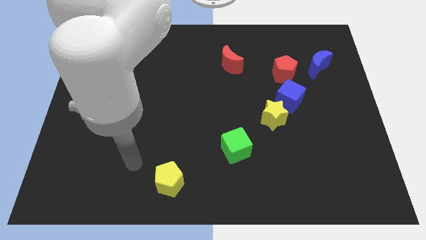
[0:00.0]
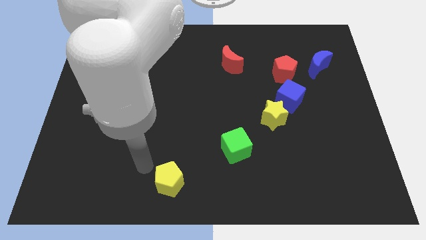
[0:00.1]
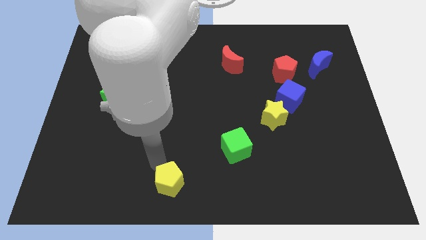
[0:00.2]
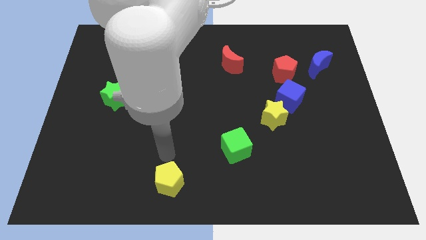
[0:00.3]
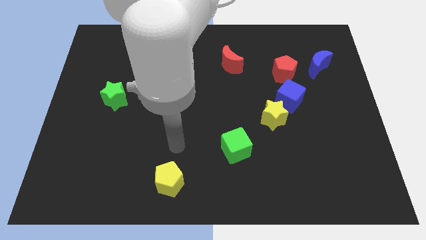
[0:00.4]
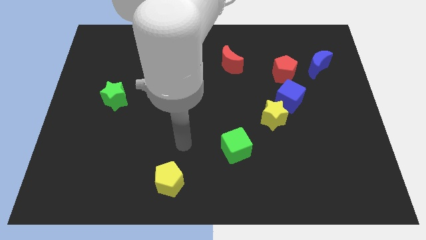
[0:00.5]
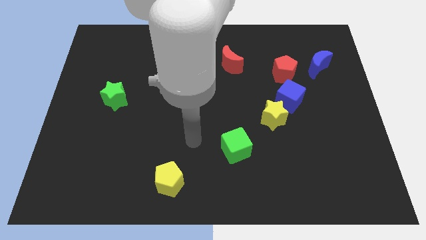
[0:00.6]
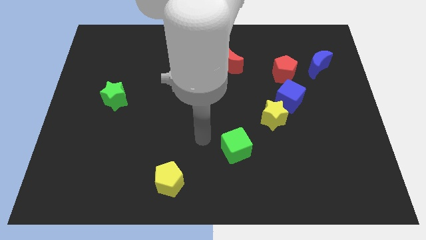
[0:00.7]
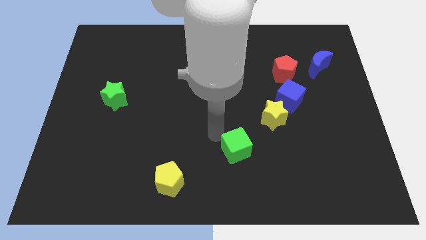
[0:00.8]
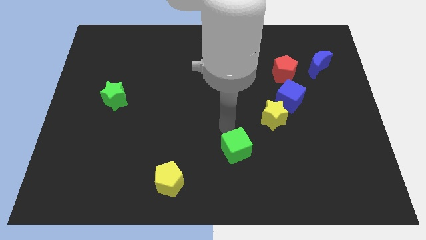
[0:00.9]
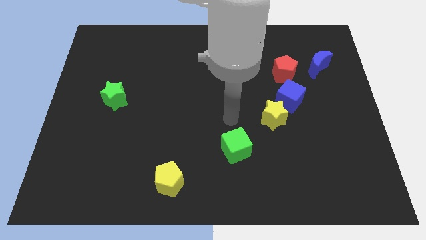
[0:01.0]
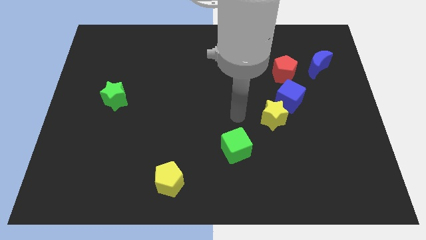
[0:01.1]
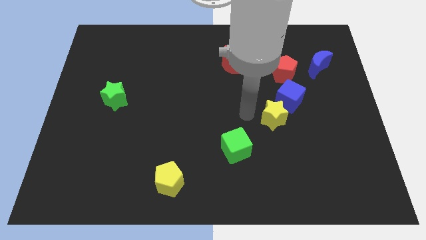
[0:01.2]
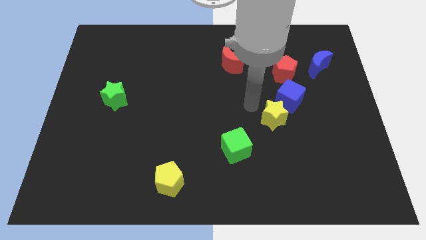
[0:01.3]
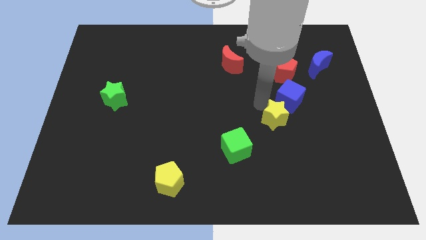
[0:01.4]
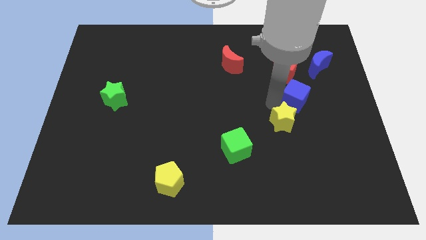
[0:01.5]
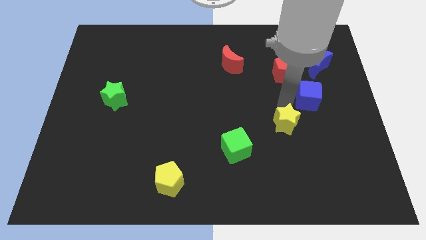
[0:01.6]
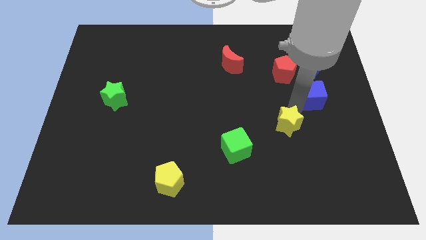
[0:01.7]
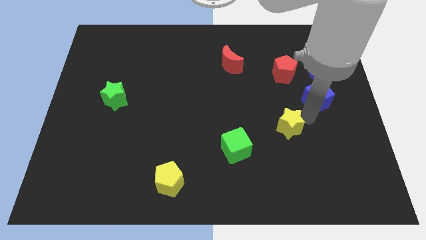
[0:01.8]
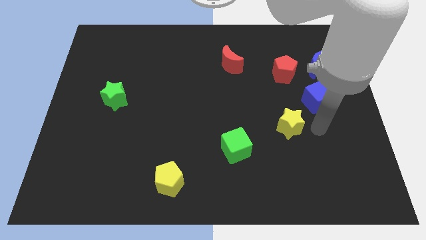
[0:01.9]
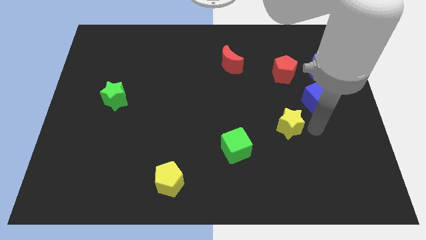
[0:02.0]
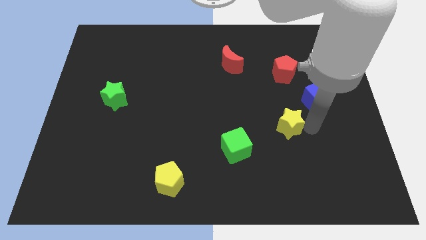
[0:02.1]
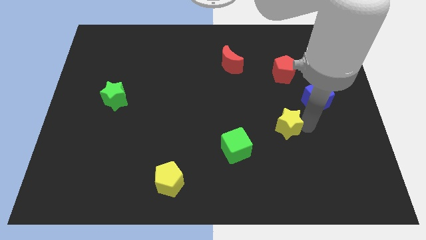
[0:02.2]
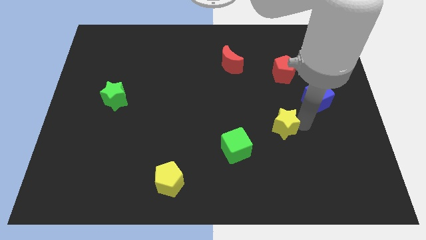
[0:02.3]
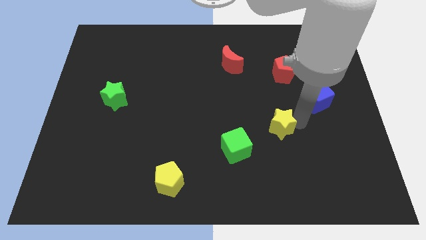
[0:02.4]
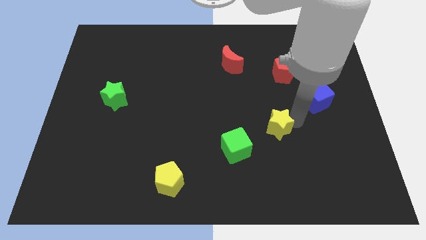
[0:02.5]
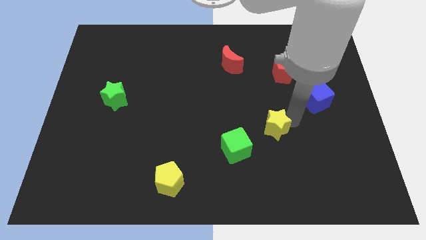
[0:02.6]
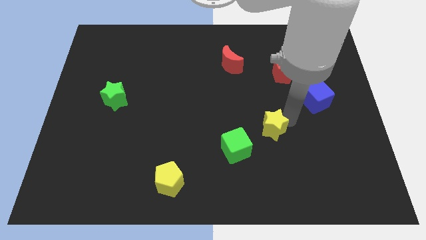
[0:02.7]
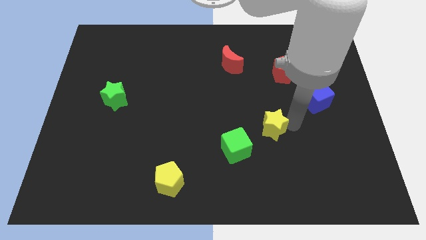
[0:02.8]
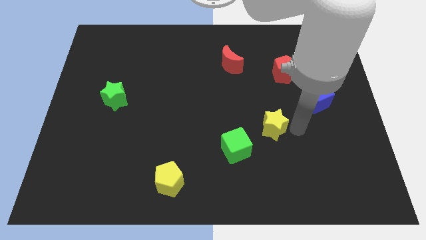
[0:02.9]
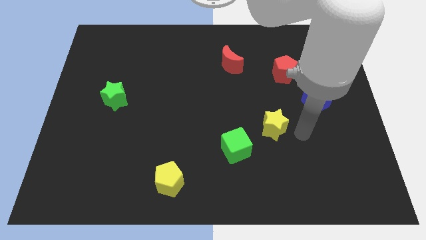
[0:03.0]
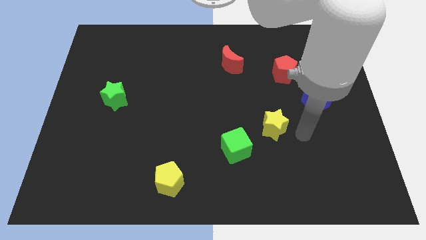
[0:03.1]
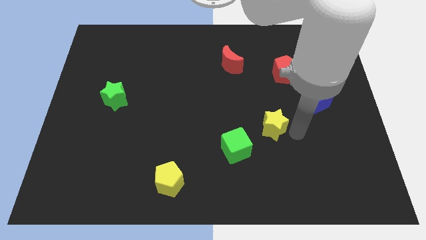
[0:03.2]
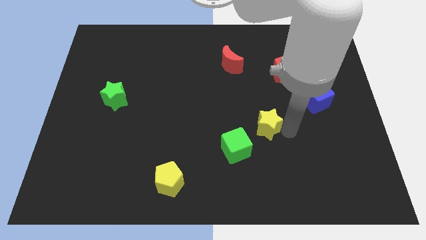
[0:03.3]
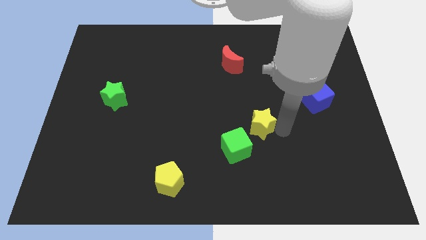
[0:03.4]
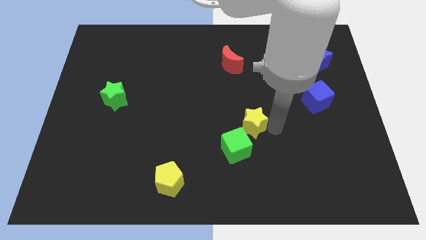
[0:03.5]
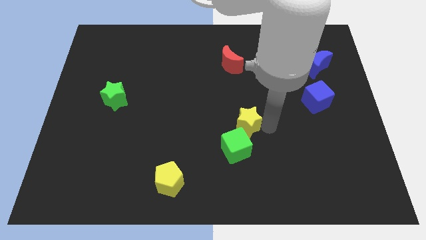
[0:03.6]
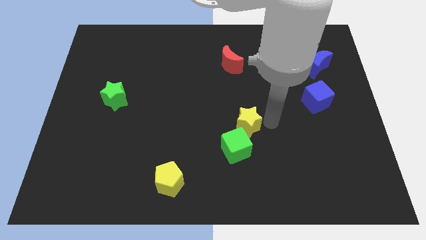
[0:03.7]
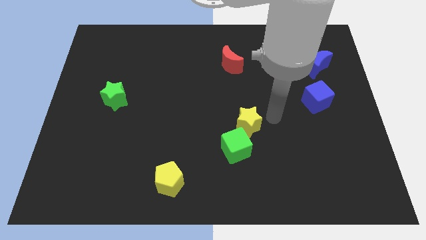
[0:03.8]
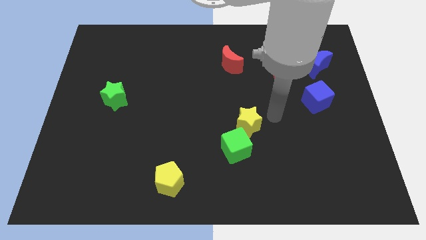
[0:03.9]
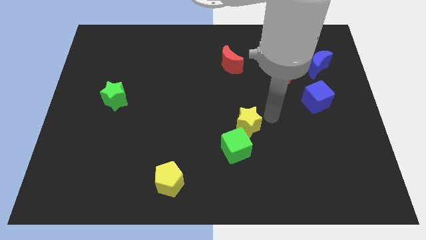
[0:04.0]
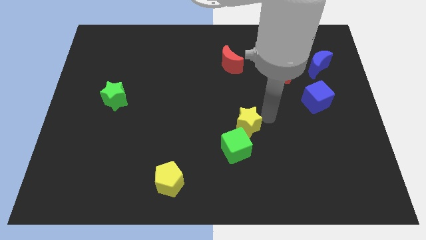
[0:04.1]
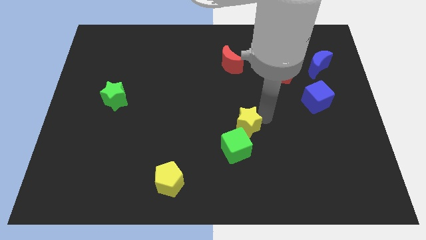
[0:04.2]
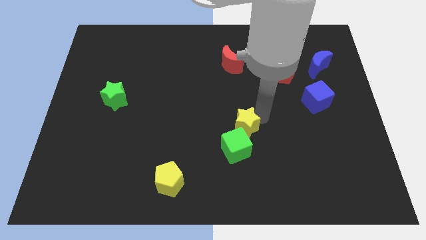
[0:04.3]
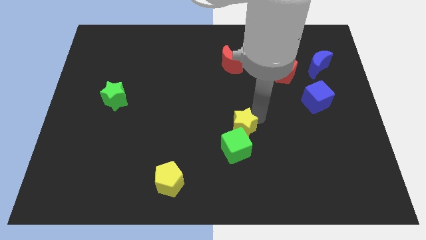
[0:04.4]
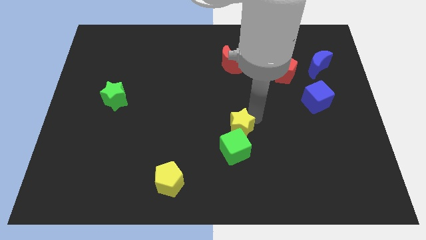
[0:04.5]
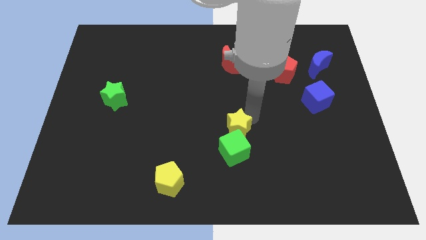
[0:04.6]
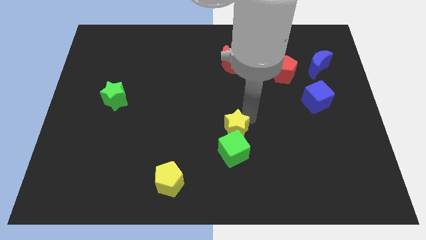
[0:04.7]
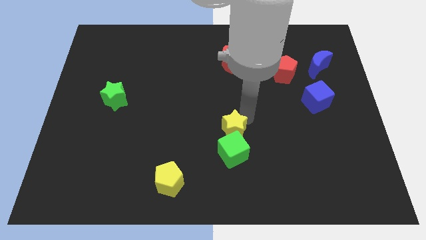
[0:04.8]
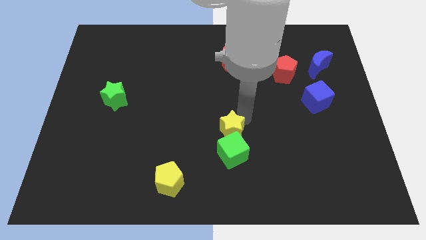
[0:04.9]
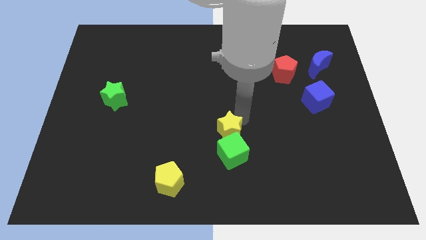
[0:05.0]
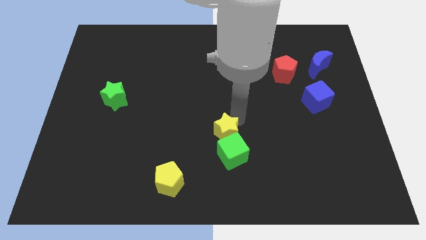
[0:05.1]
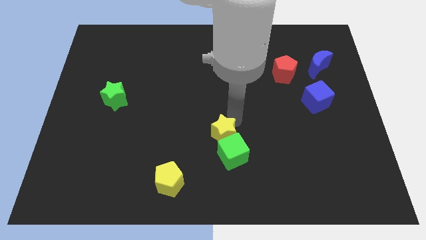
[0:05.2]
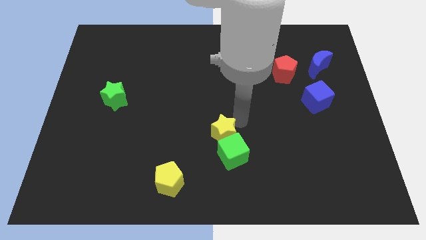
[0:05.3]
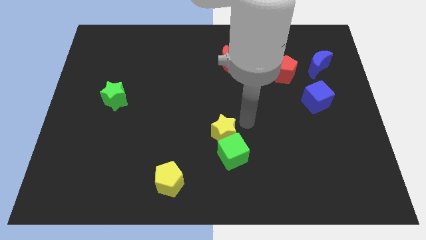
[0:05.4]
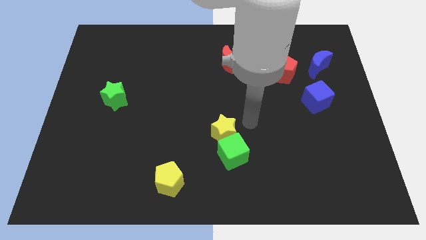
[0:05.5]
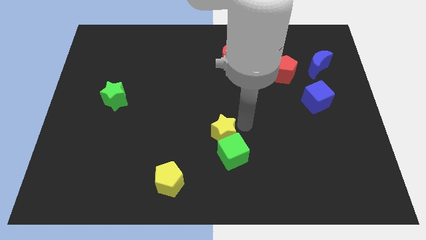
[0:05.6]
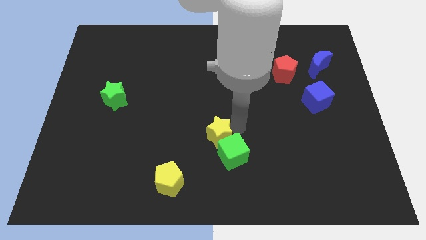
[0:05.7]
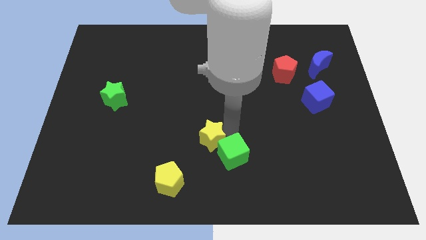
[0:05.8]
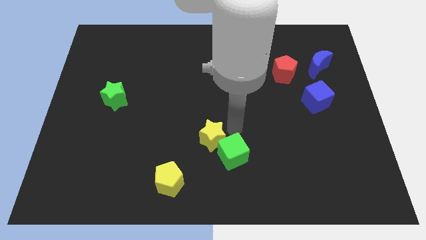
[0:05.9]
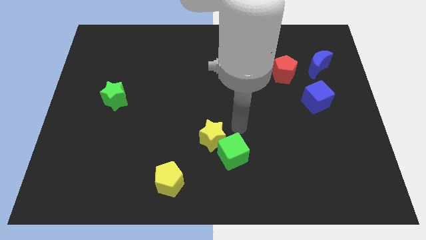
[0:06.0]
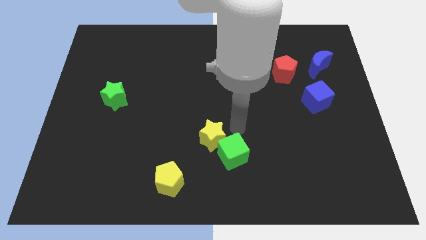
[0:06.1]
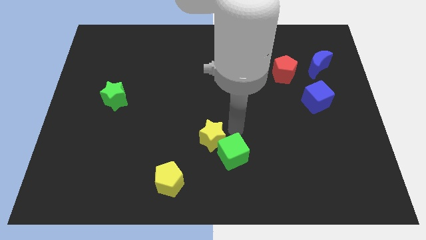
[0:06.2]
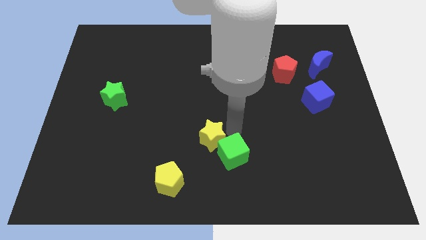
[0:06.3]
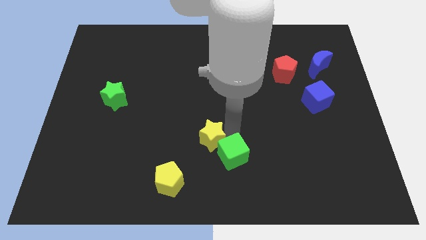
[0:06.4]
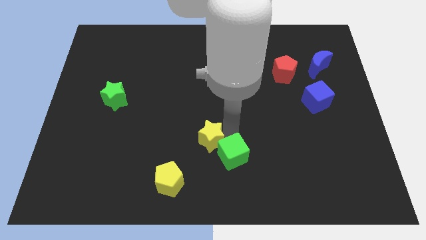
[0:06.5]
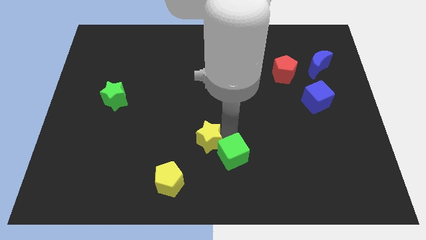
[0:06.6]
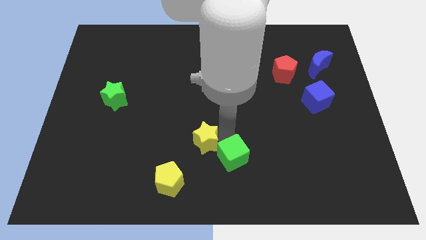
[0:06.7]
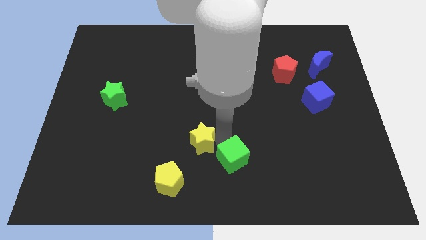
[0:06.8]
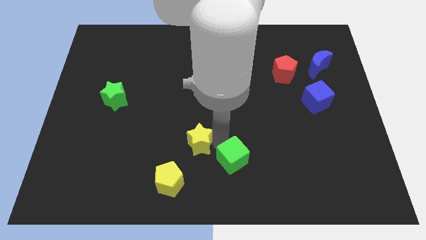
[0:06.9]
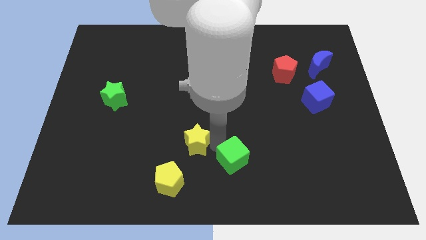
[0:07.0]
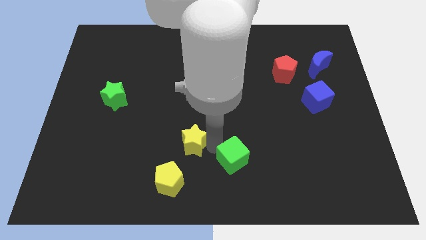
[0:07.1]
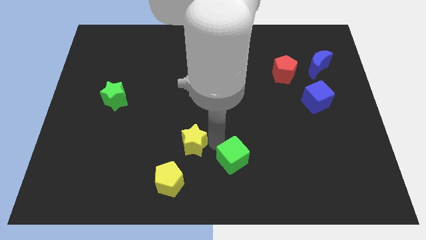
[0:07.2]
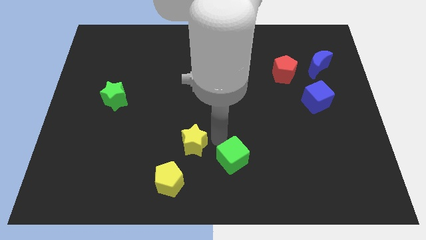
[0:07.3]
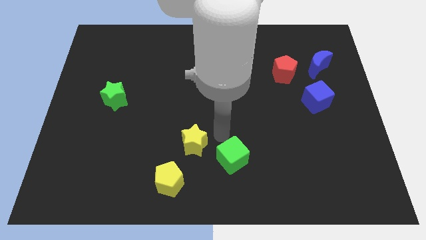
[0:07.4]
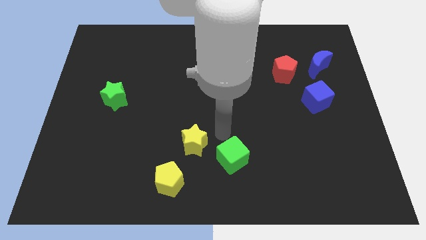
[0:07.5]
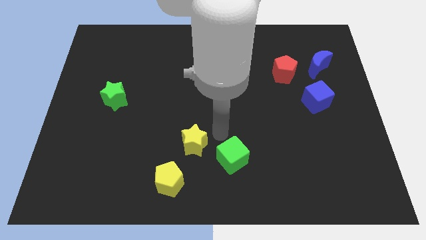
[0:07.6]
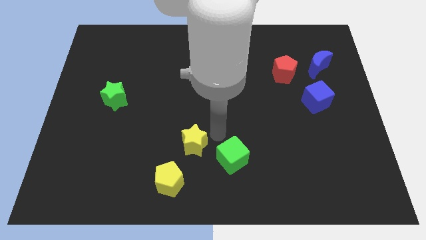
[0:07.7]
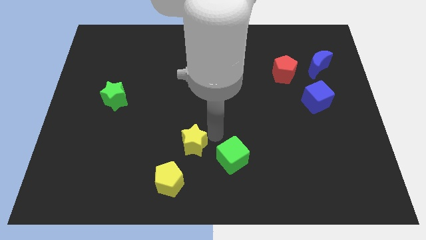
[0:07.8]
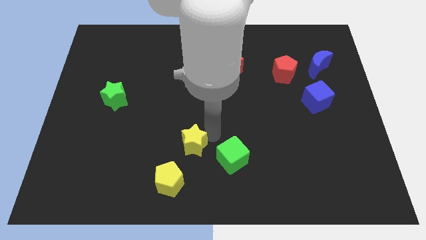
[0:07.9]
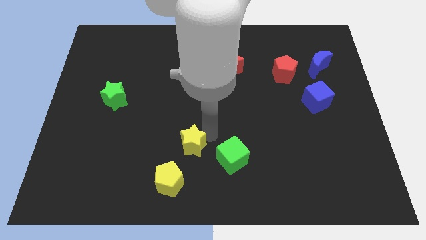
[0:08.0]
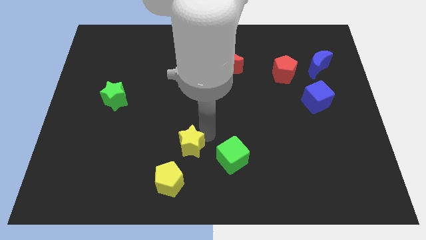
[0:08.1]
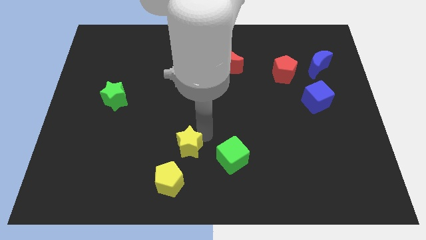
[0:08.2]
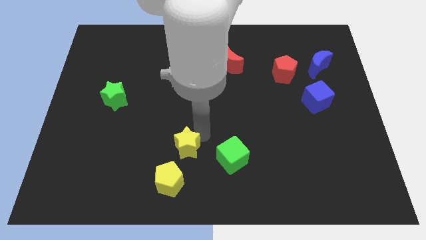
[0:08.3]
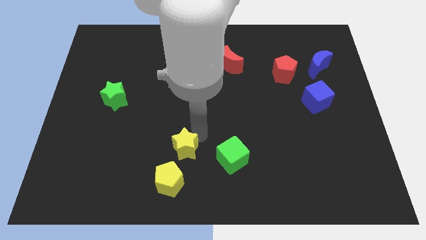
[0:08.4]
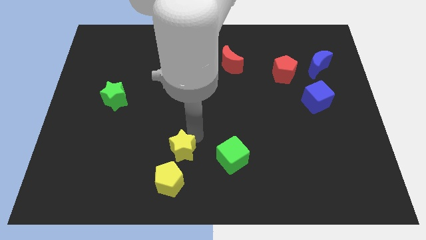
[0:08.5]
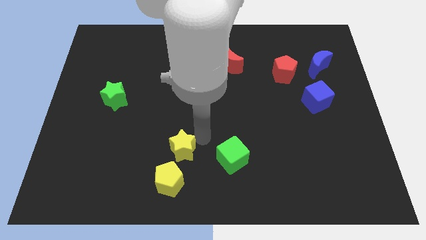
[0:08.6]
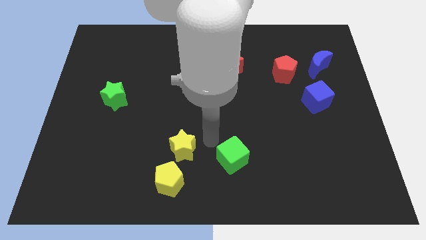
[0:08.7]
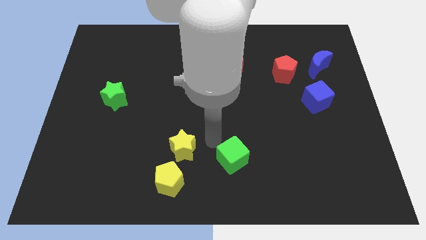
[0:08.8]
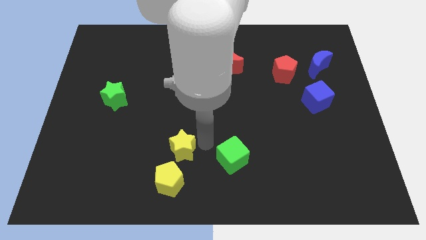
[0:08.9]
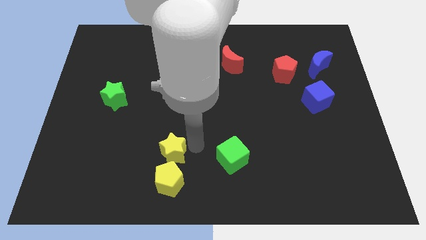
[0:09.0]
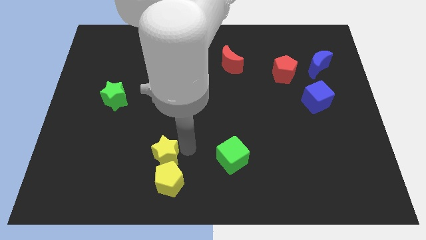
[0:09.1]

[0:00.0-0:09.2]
put the yellow star diagonally up and to the left of the yellow pentagon
